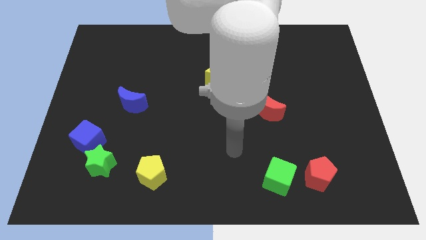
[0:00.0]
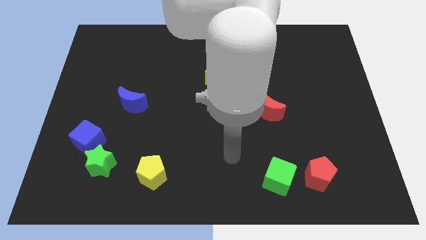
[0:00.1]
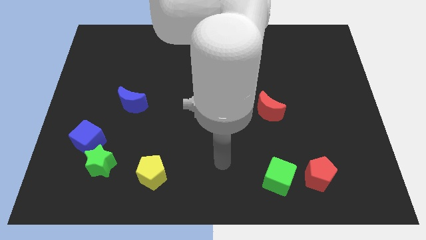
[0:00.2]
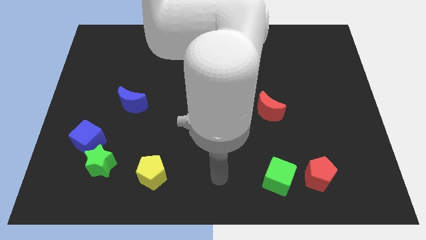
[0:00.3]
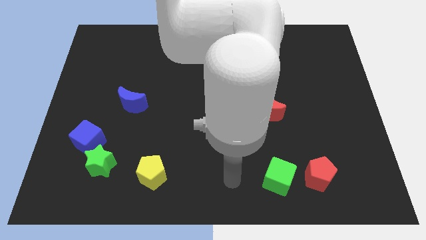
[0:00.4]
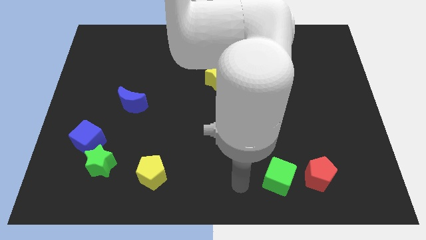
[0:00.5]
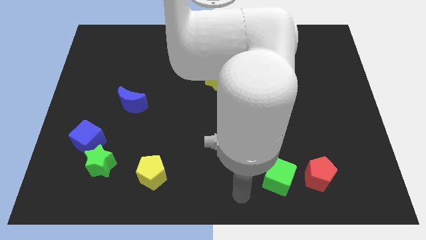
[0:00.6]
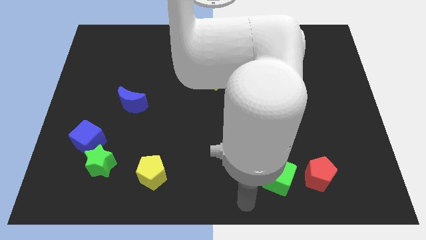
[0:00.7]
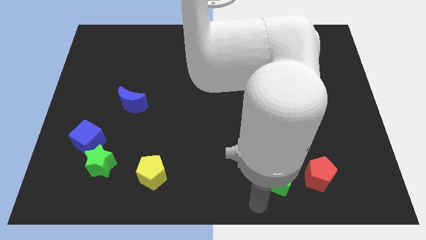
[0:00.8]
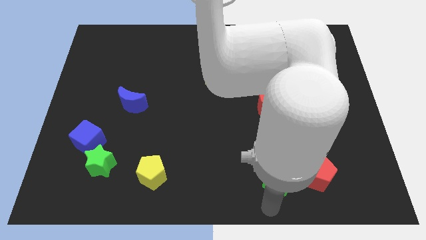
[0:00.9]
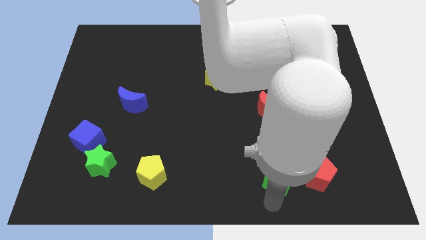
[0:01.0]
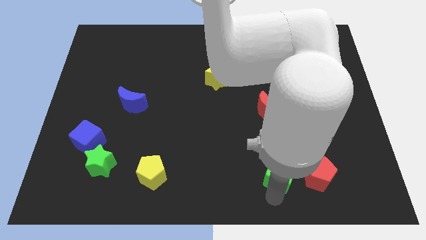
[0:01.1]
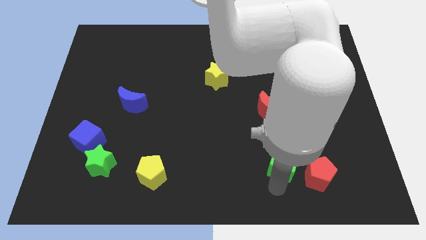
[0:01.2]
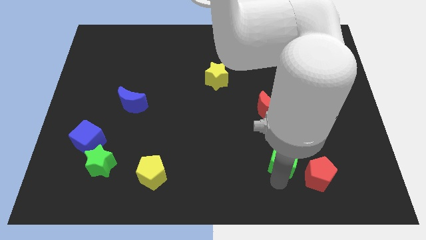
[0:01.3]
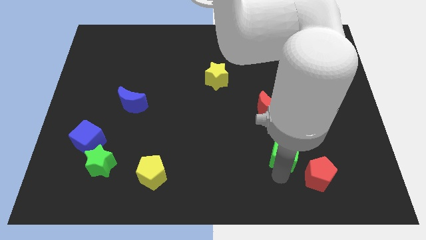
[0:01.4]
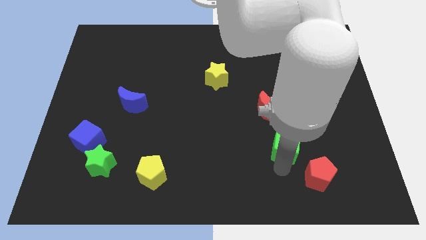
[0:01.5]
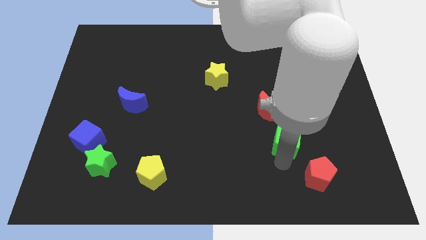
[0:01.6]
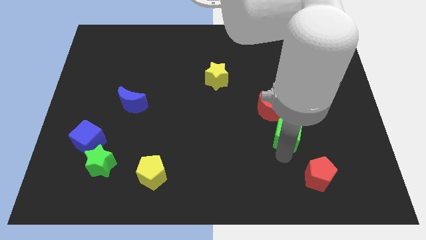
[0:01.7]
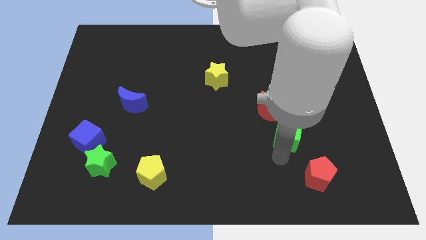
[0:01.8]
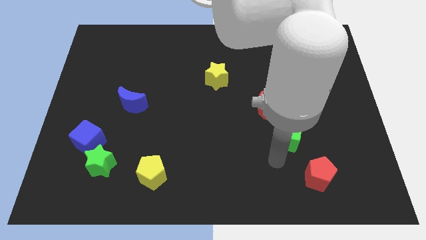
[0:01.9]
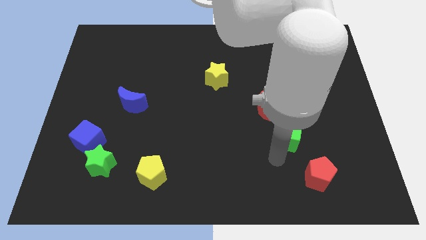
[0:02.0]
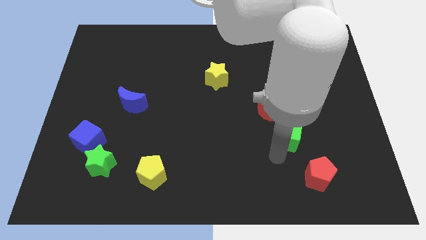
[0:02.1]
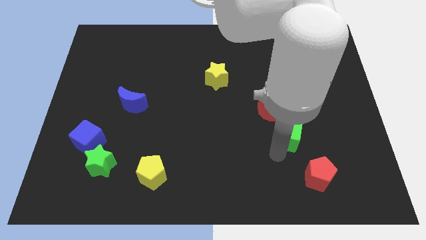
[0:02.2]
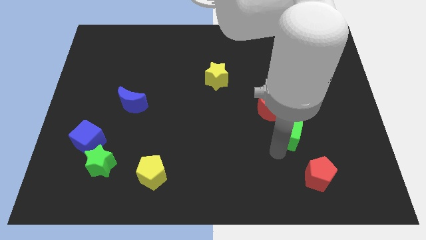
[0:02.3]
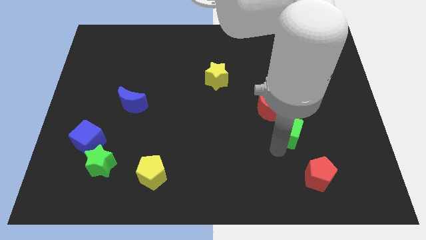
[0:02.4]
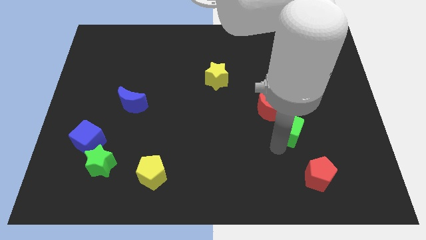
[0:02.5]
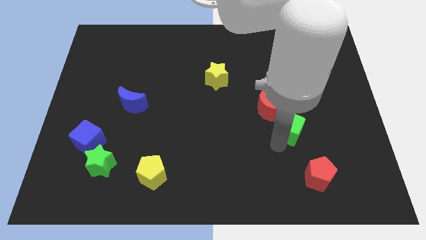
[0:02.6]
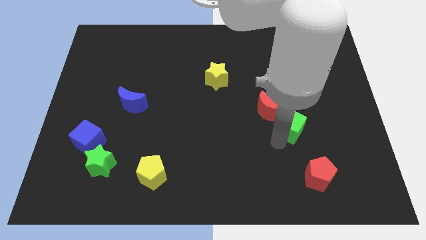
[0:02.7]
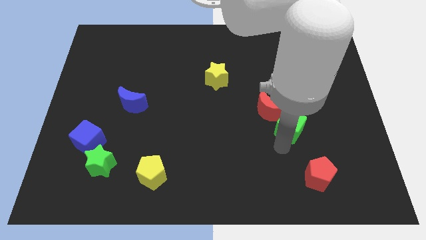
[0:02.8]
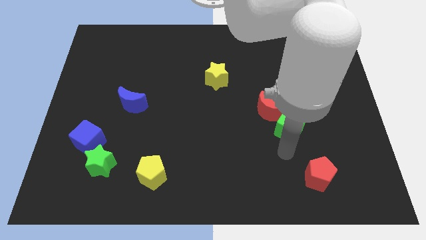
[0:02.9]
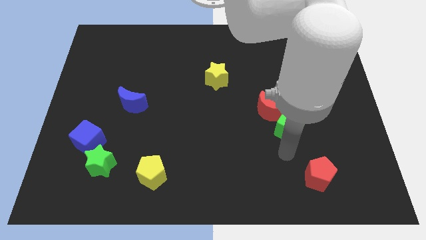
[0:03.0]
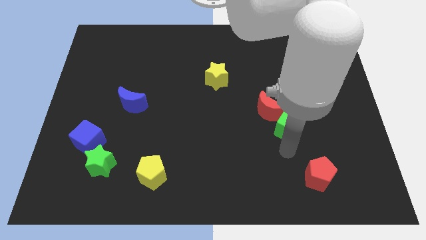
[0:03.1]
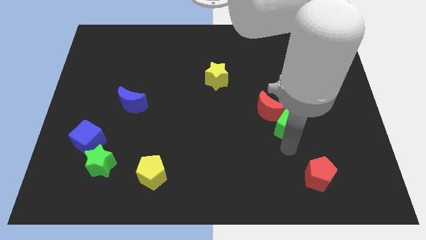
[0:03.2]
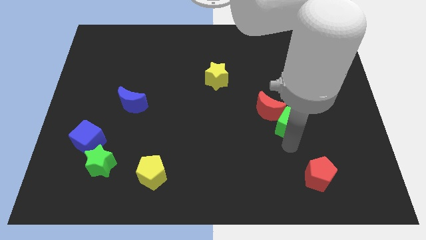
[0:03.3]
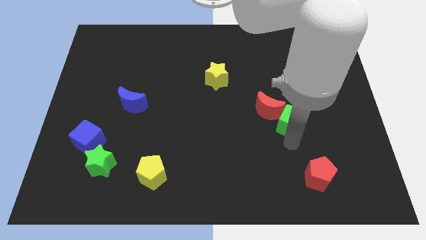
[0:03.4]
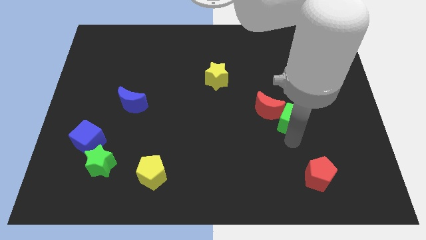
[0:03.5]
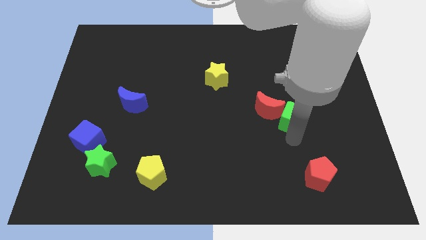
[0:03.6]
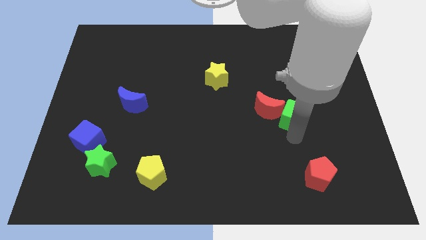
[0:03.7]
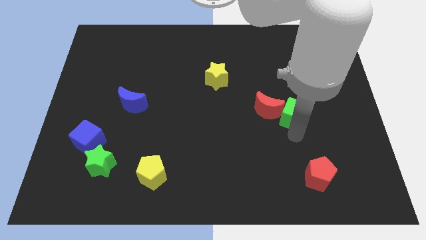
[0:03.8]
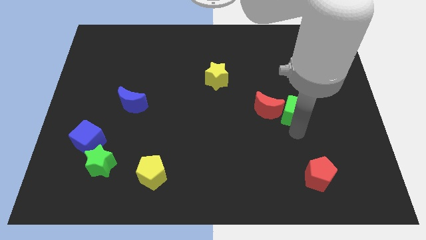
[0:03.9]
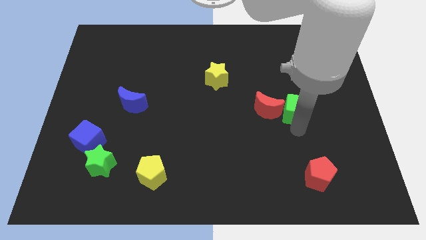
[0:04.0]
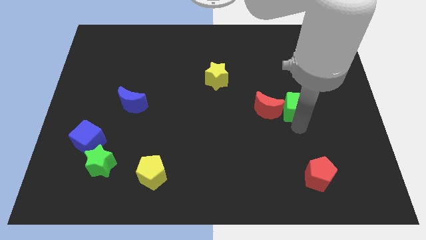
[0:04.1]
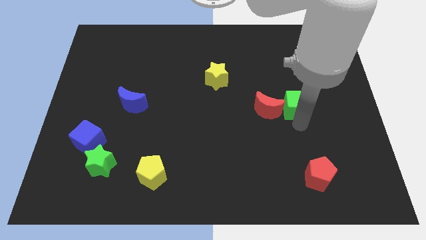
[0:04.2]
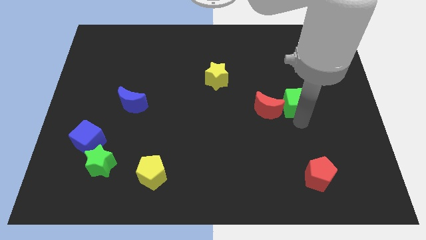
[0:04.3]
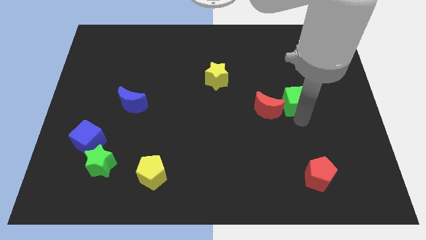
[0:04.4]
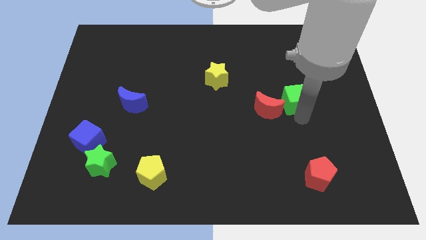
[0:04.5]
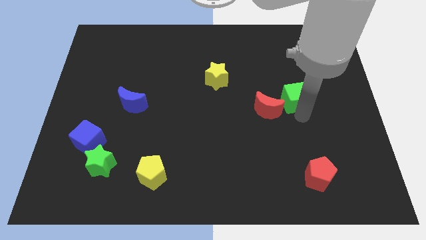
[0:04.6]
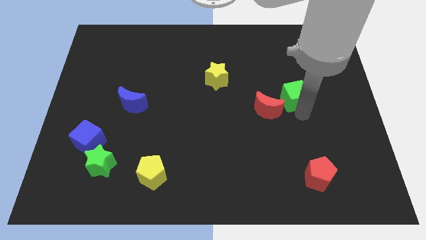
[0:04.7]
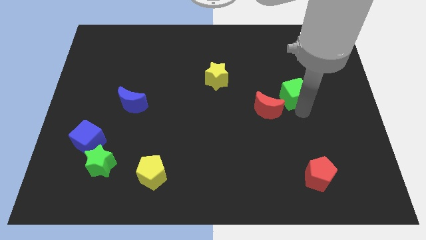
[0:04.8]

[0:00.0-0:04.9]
slide the green cube upwards

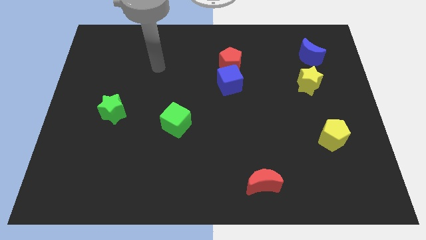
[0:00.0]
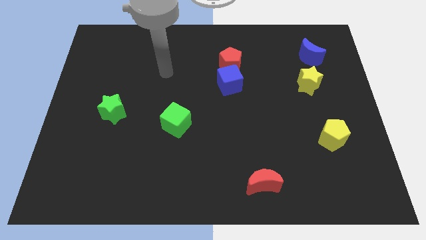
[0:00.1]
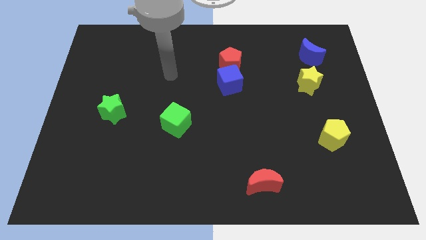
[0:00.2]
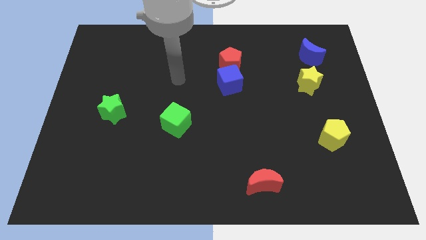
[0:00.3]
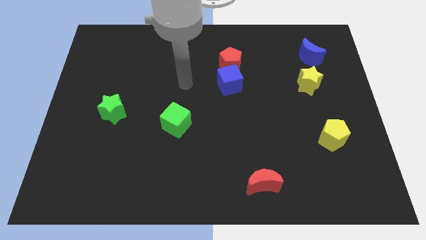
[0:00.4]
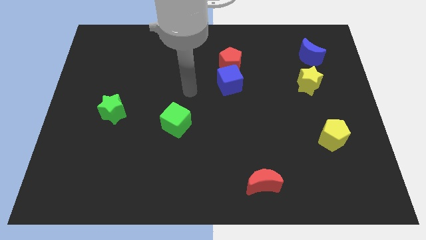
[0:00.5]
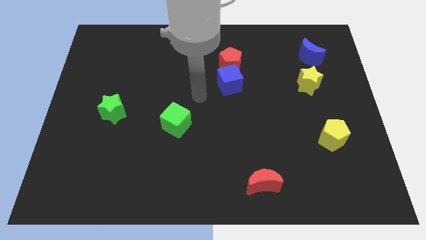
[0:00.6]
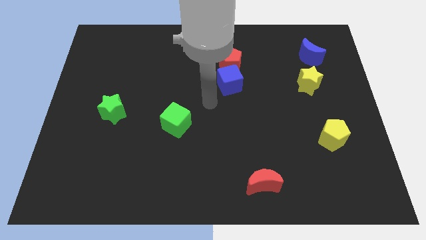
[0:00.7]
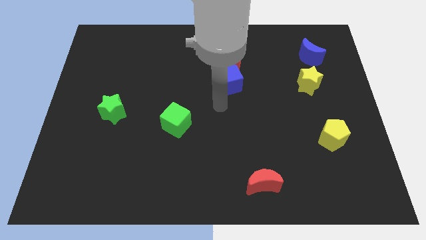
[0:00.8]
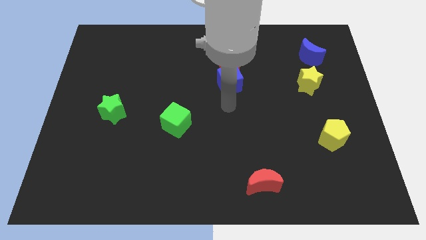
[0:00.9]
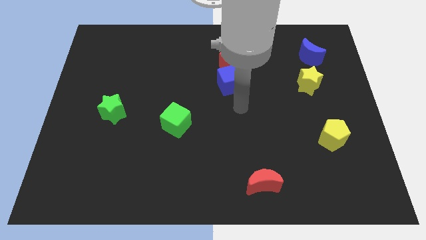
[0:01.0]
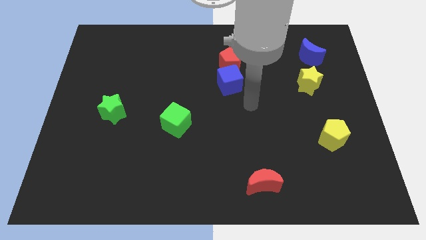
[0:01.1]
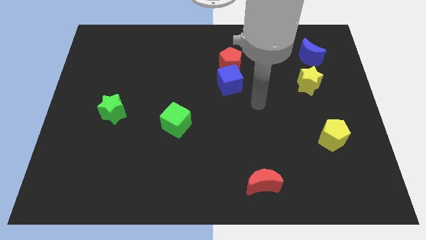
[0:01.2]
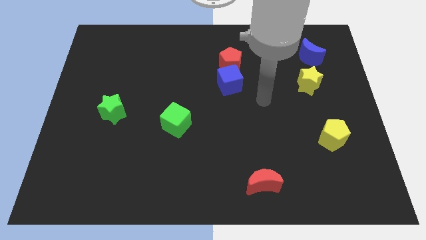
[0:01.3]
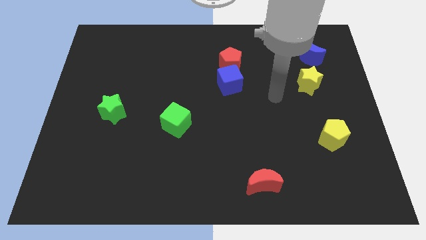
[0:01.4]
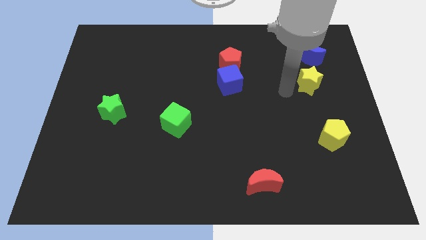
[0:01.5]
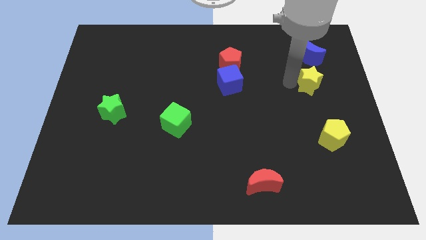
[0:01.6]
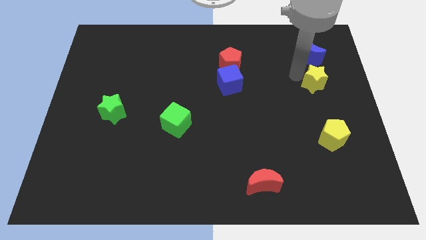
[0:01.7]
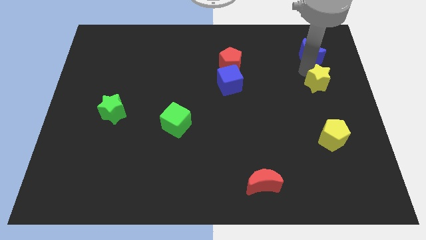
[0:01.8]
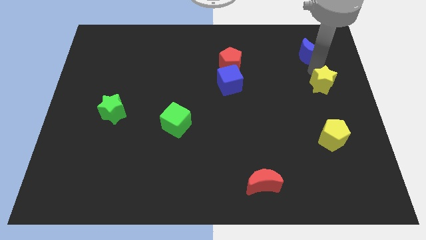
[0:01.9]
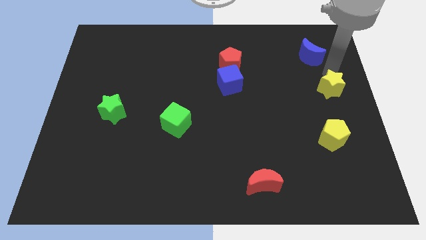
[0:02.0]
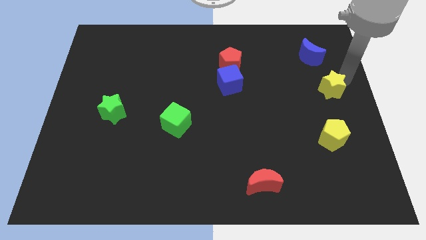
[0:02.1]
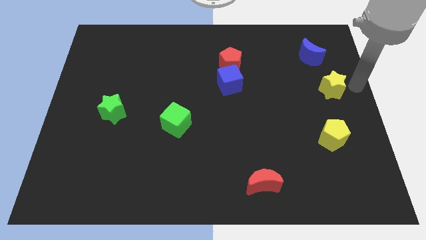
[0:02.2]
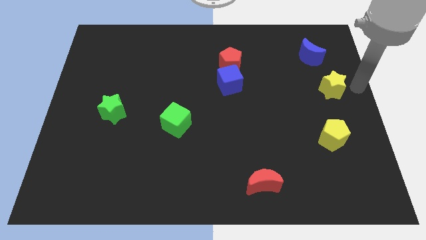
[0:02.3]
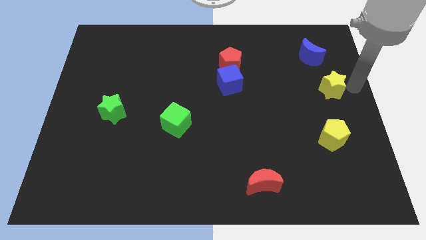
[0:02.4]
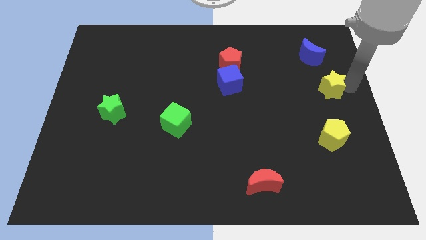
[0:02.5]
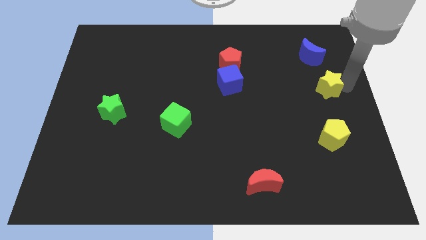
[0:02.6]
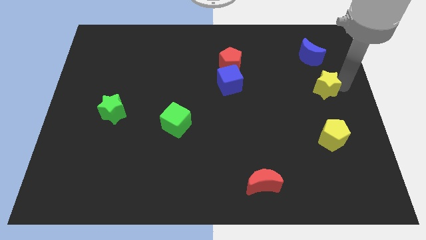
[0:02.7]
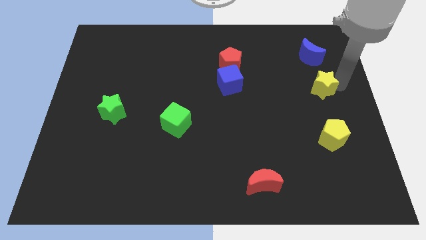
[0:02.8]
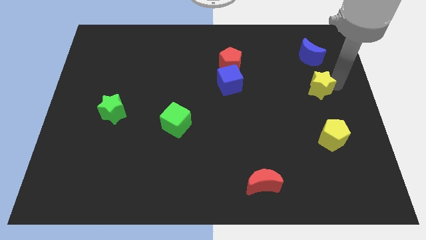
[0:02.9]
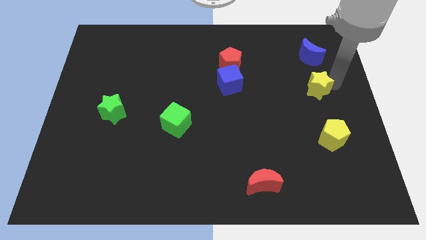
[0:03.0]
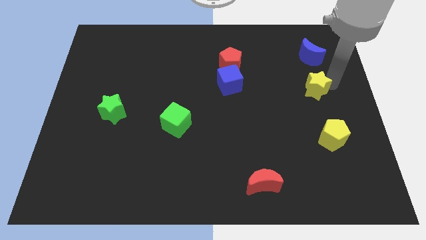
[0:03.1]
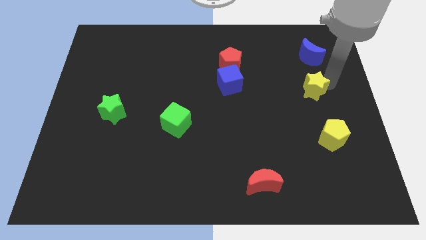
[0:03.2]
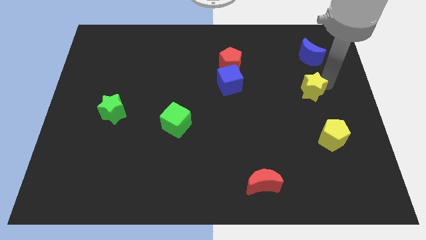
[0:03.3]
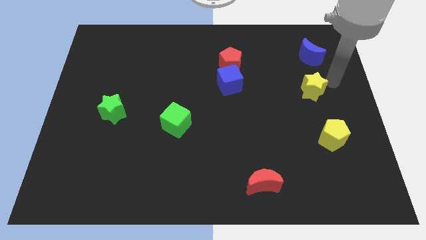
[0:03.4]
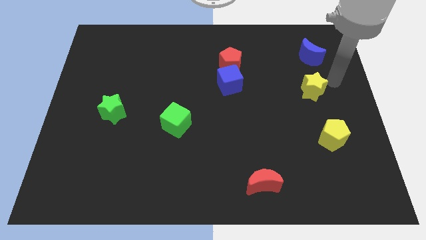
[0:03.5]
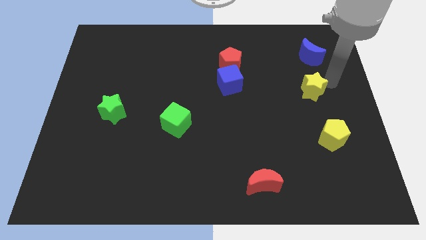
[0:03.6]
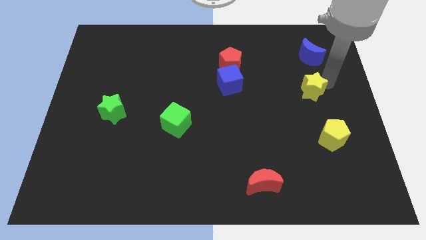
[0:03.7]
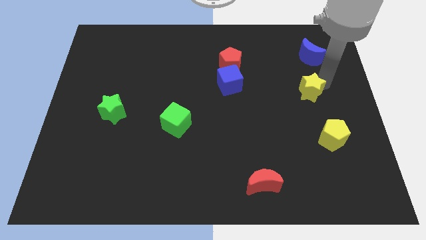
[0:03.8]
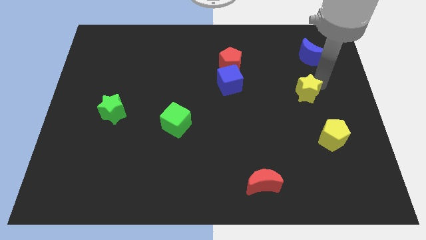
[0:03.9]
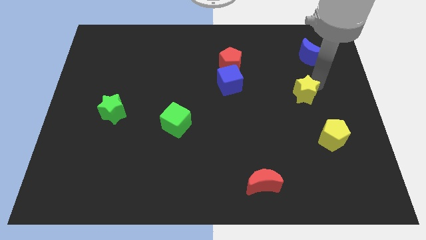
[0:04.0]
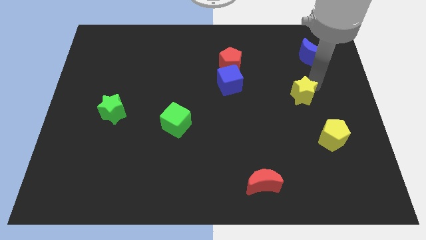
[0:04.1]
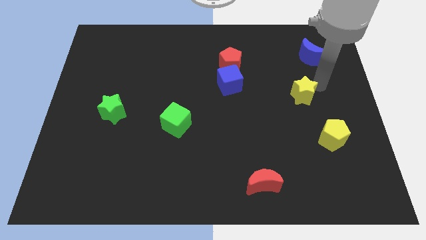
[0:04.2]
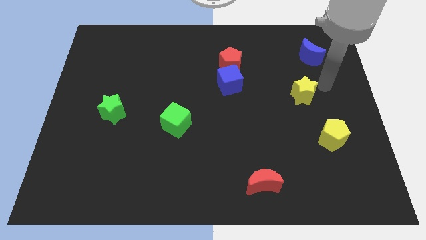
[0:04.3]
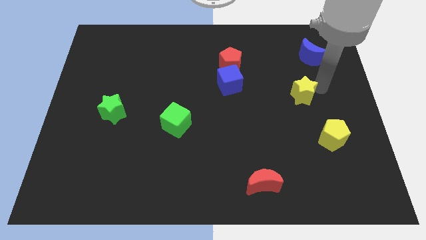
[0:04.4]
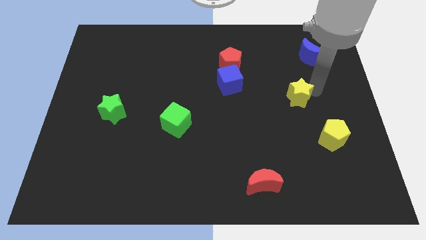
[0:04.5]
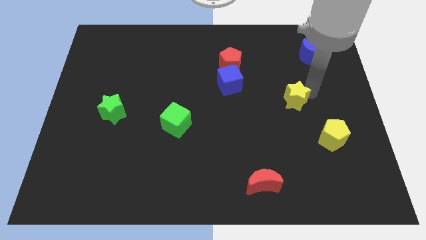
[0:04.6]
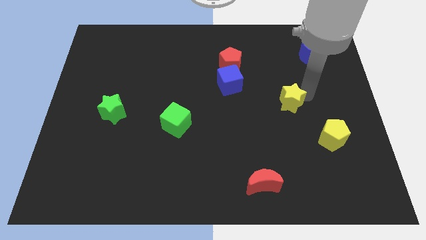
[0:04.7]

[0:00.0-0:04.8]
move the yellow star down and to the left diagonally slightly
